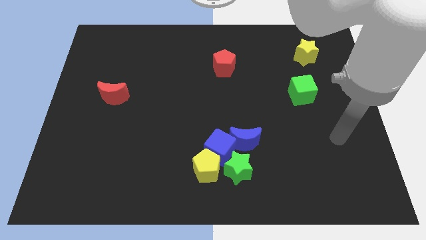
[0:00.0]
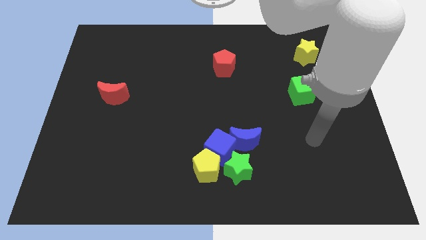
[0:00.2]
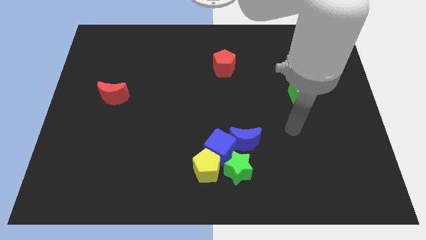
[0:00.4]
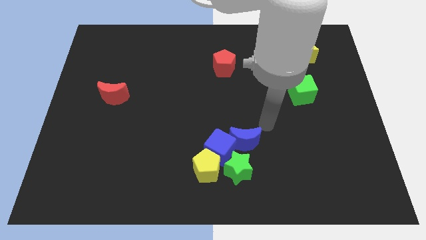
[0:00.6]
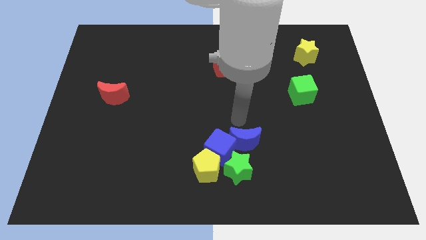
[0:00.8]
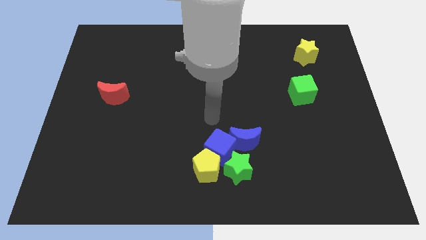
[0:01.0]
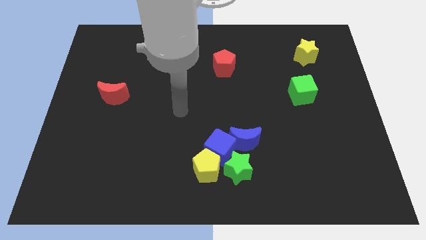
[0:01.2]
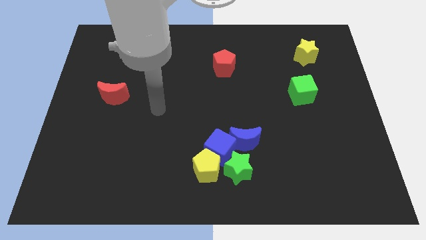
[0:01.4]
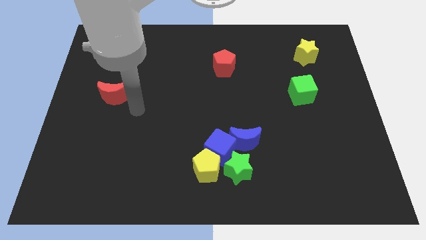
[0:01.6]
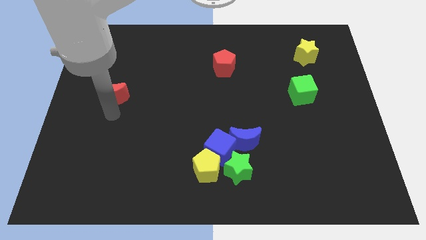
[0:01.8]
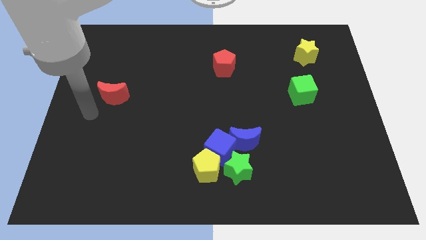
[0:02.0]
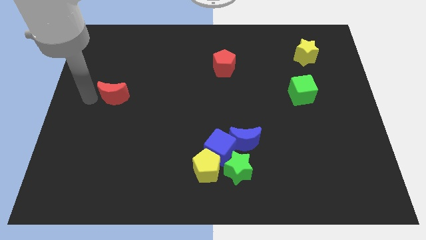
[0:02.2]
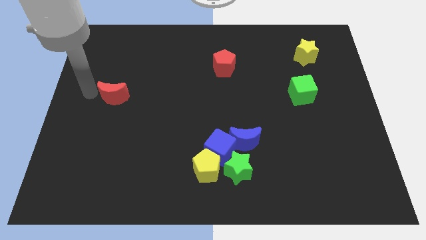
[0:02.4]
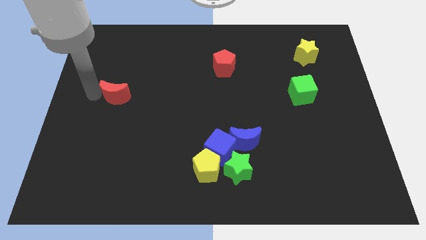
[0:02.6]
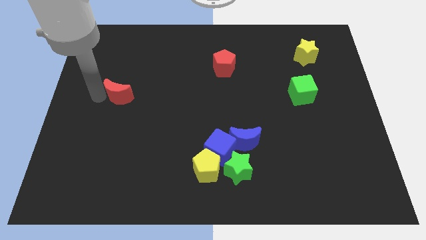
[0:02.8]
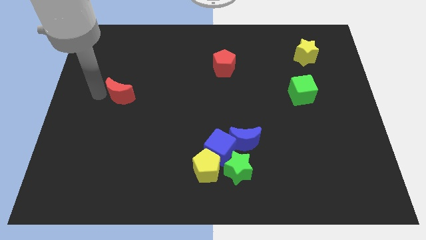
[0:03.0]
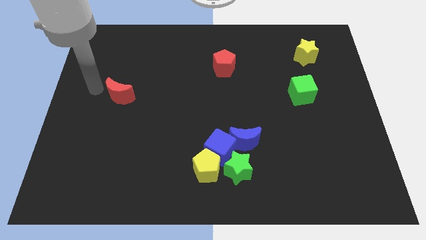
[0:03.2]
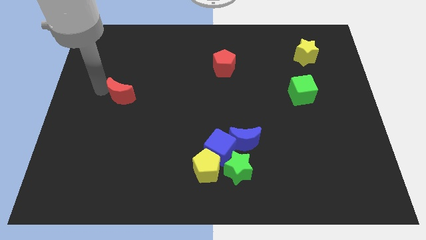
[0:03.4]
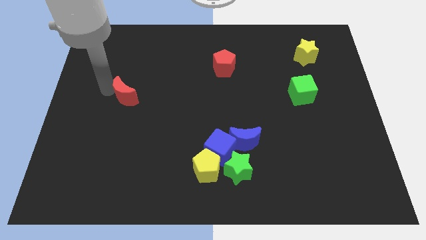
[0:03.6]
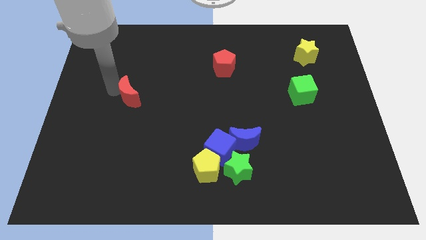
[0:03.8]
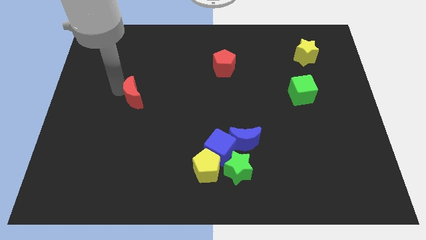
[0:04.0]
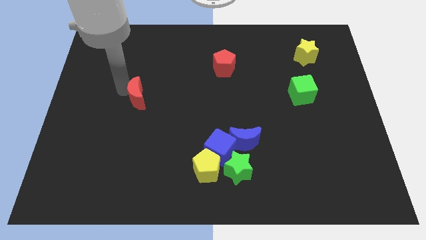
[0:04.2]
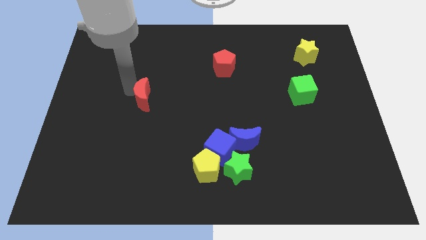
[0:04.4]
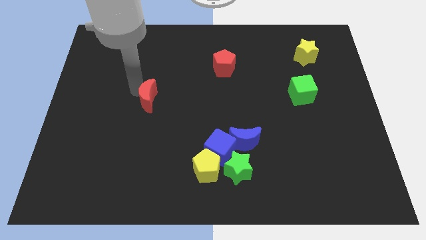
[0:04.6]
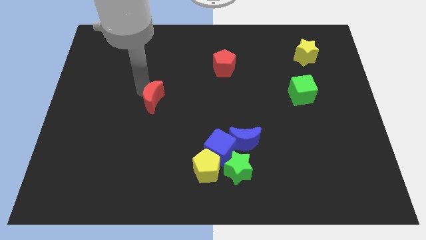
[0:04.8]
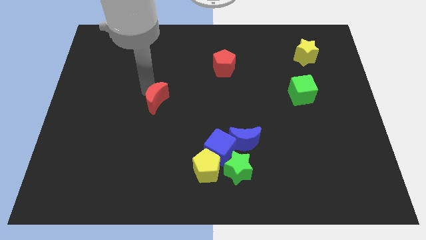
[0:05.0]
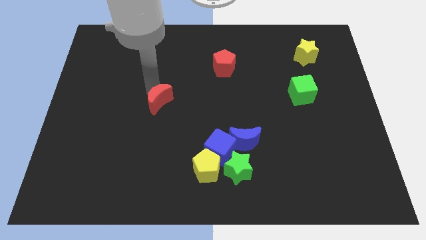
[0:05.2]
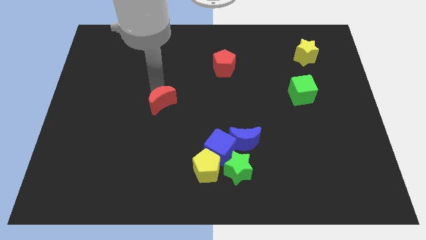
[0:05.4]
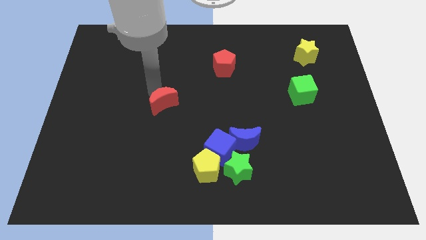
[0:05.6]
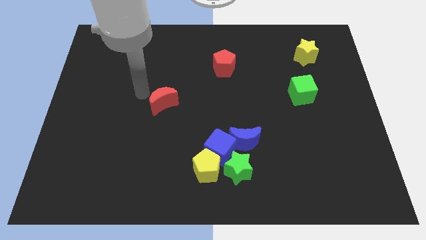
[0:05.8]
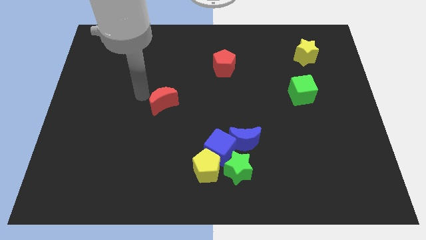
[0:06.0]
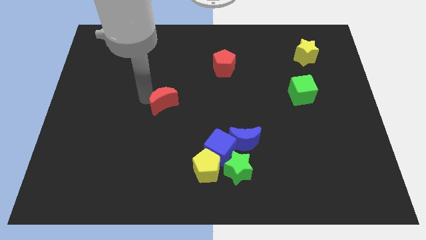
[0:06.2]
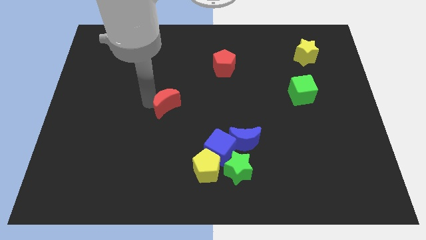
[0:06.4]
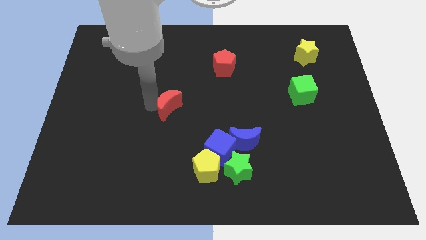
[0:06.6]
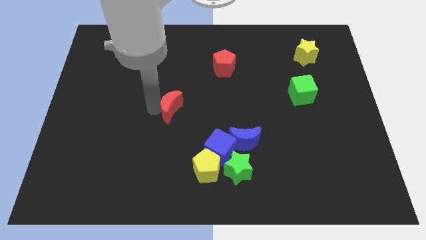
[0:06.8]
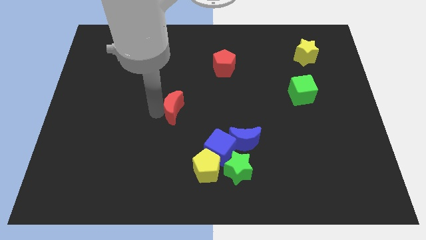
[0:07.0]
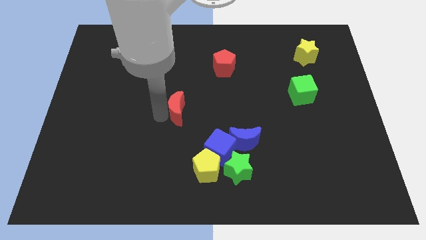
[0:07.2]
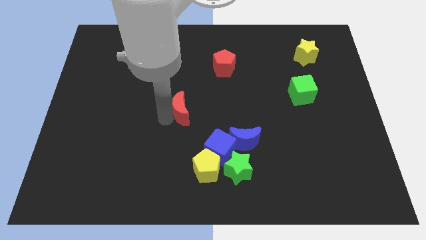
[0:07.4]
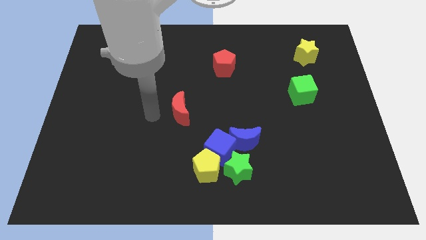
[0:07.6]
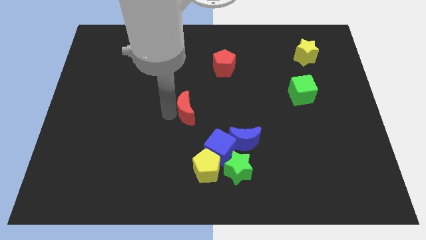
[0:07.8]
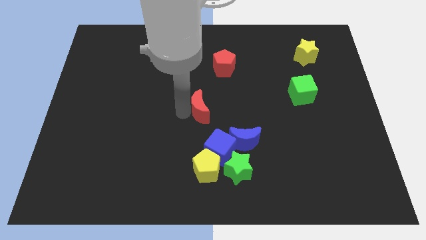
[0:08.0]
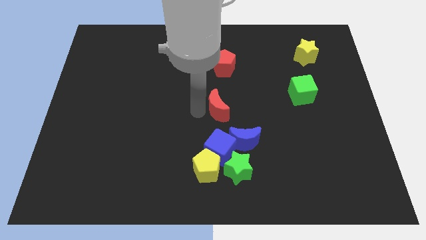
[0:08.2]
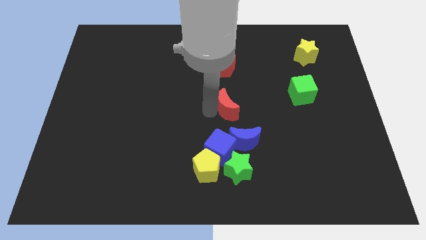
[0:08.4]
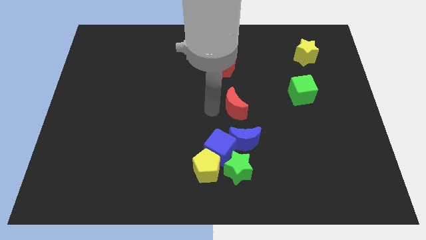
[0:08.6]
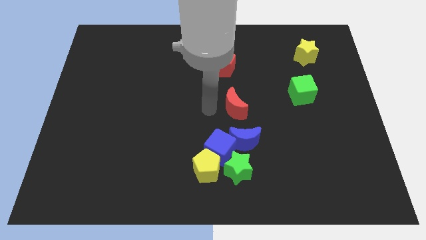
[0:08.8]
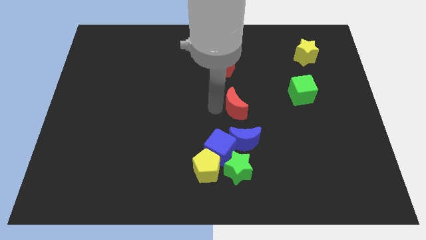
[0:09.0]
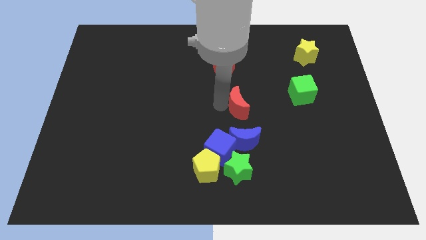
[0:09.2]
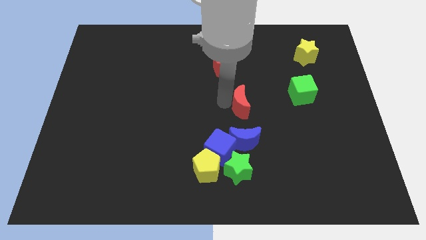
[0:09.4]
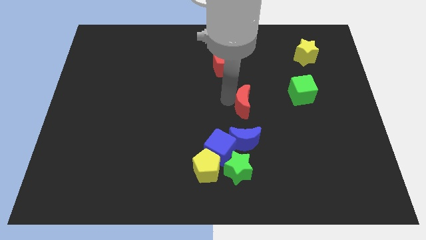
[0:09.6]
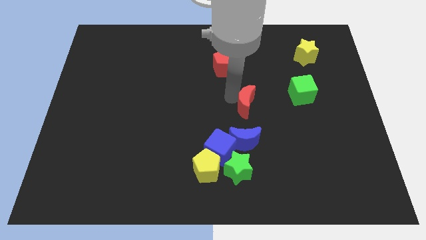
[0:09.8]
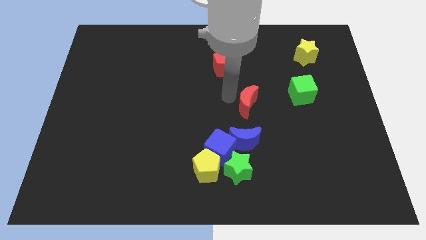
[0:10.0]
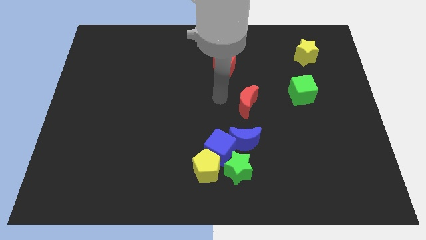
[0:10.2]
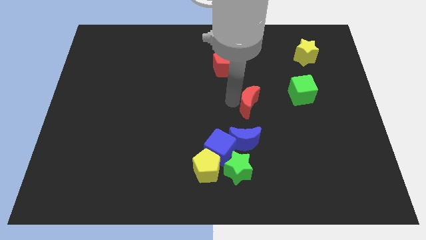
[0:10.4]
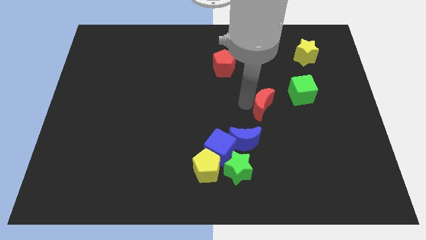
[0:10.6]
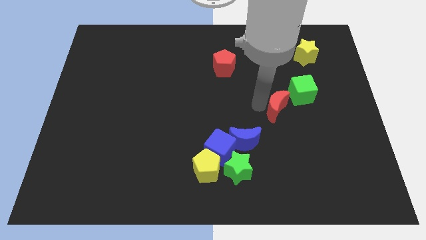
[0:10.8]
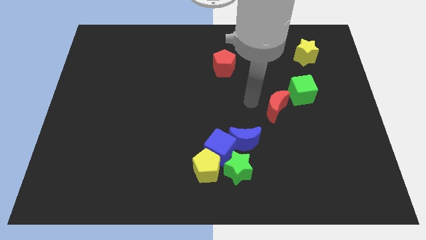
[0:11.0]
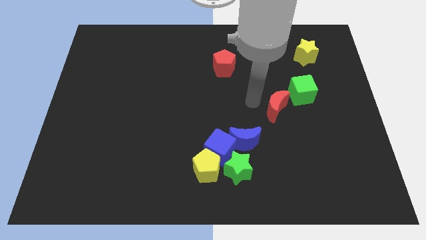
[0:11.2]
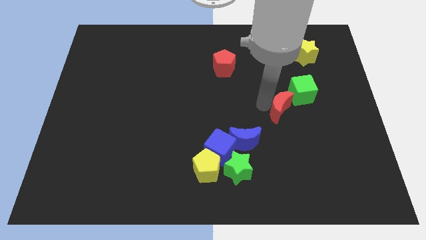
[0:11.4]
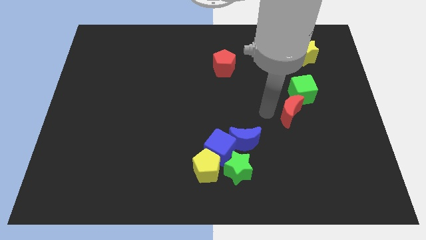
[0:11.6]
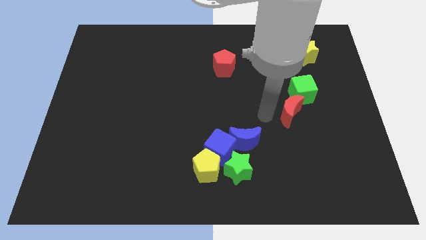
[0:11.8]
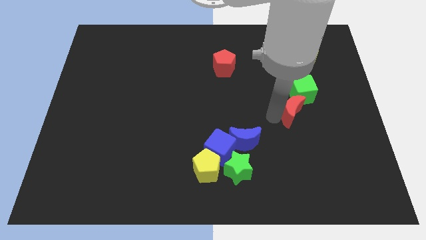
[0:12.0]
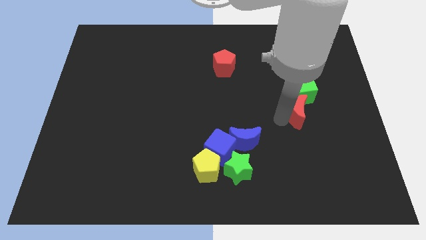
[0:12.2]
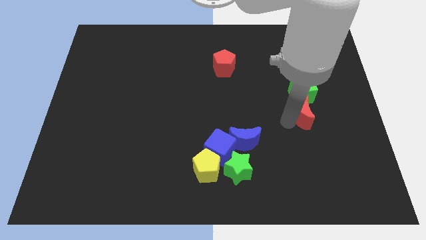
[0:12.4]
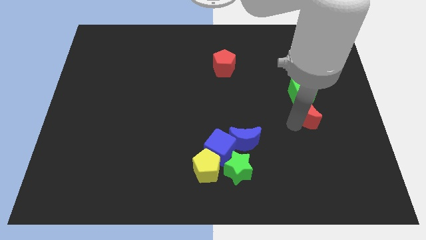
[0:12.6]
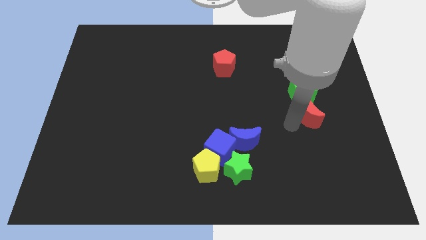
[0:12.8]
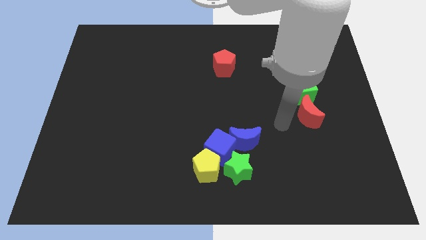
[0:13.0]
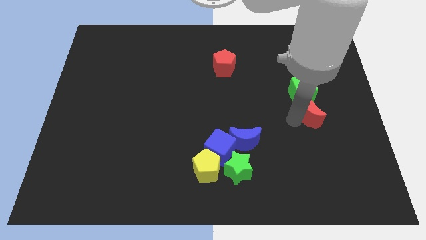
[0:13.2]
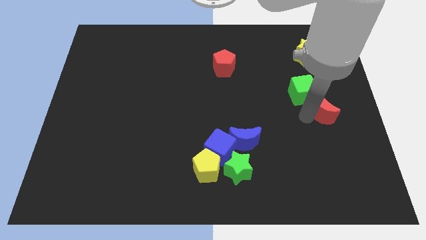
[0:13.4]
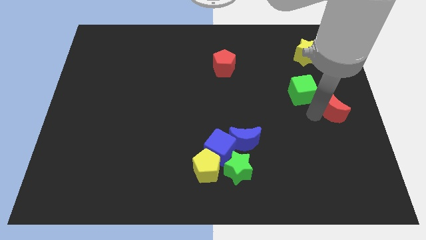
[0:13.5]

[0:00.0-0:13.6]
put the red moon to the right side of the board
